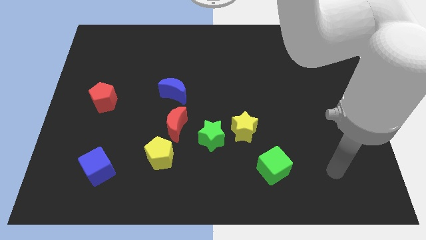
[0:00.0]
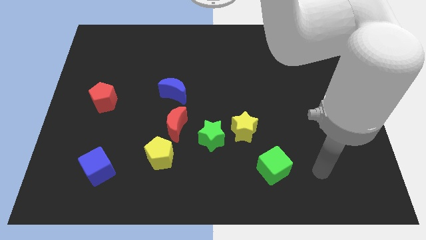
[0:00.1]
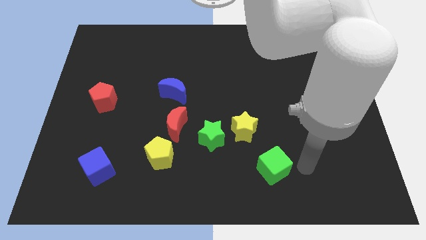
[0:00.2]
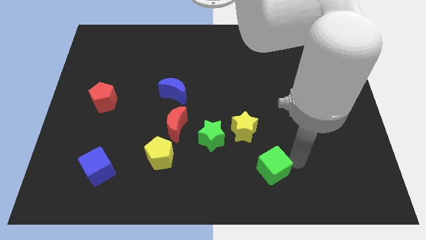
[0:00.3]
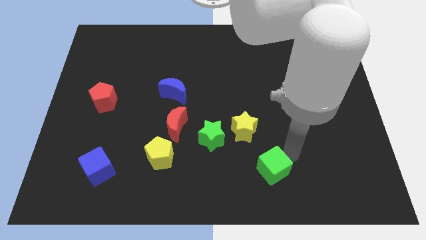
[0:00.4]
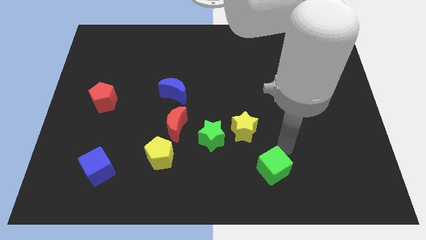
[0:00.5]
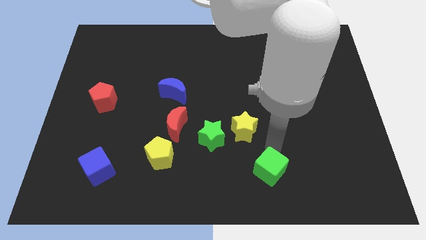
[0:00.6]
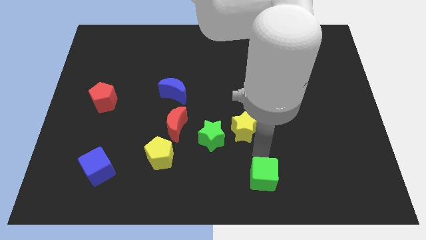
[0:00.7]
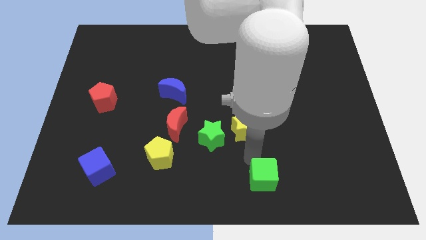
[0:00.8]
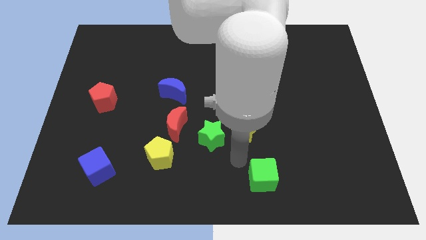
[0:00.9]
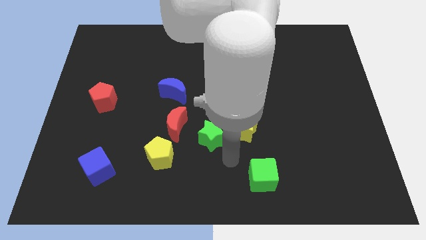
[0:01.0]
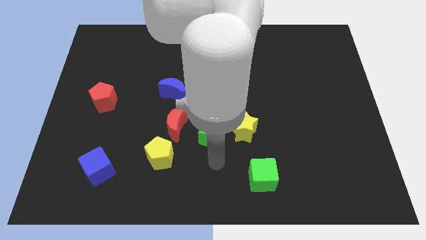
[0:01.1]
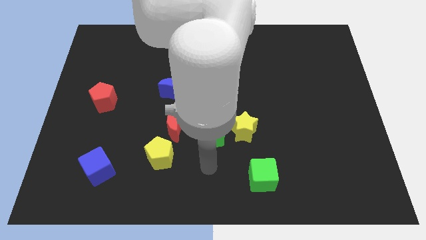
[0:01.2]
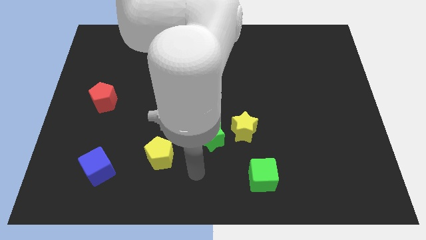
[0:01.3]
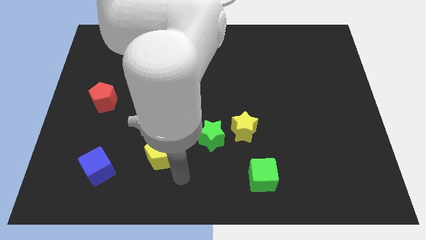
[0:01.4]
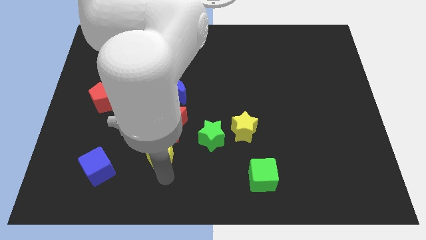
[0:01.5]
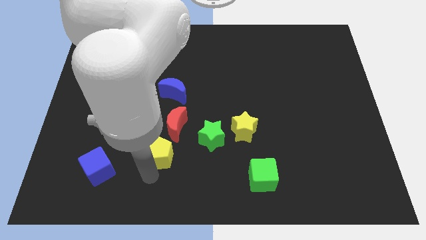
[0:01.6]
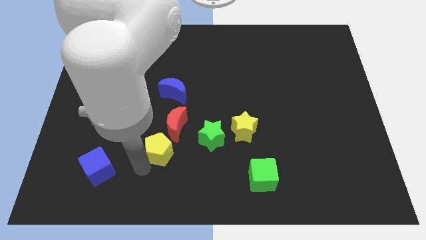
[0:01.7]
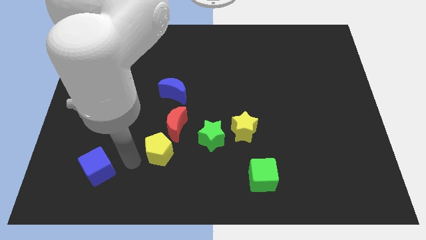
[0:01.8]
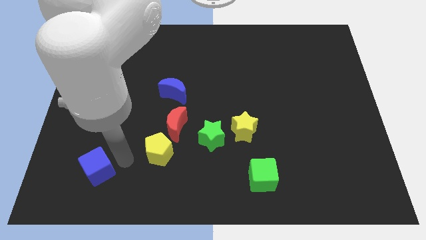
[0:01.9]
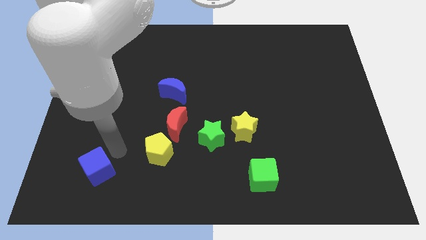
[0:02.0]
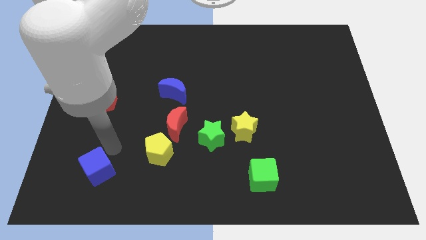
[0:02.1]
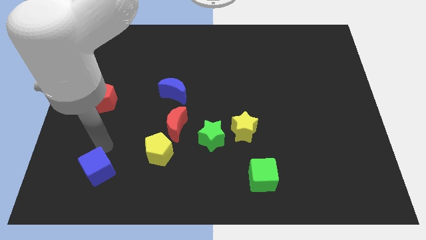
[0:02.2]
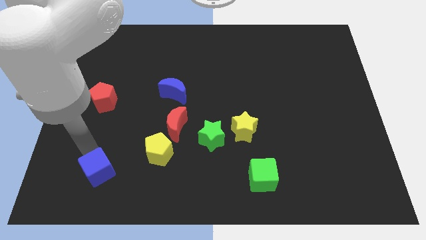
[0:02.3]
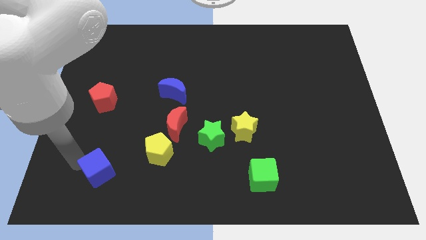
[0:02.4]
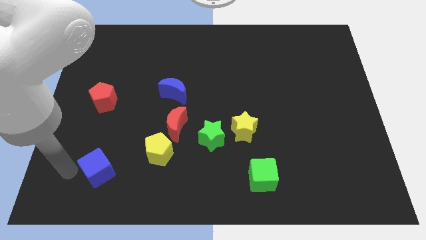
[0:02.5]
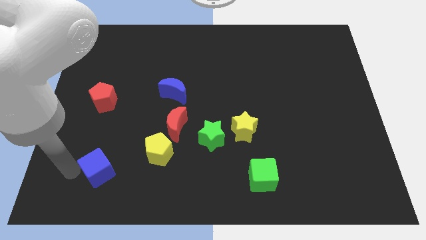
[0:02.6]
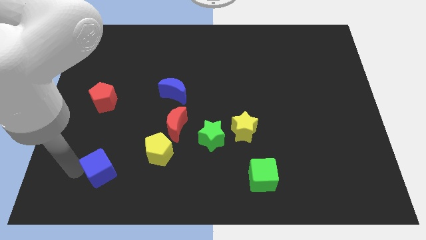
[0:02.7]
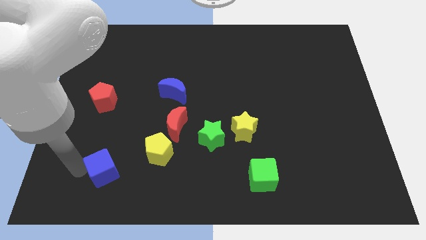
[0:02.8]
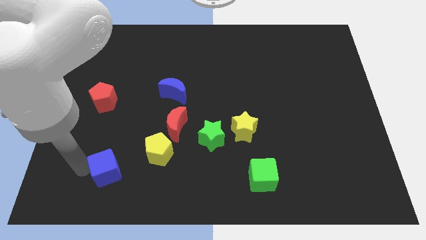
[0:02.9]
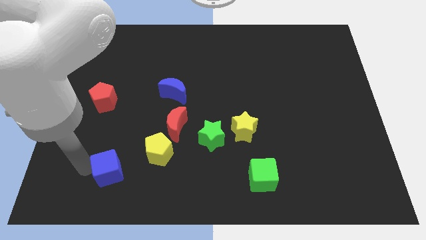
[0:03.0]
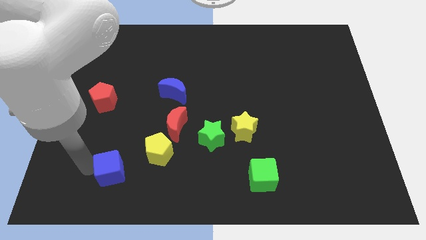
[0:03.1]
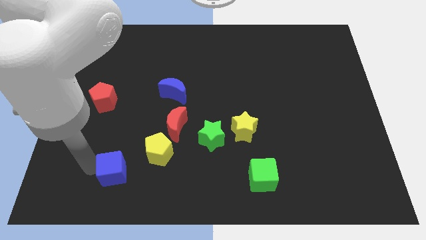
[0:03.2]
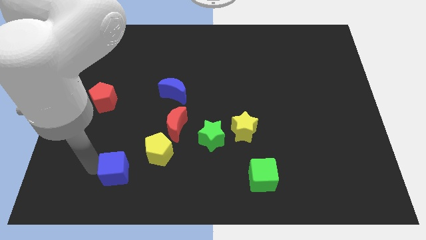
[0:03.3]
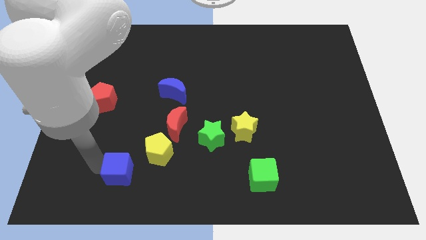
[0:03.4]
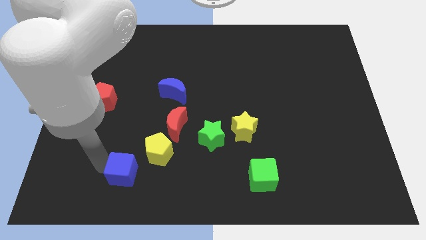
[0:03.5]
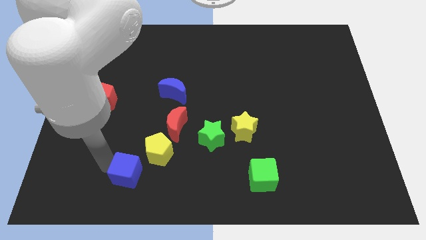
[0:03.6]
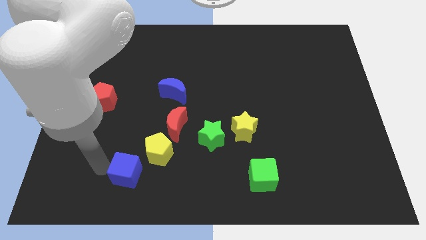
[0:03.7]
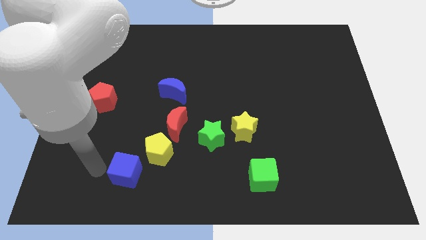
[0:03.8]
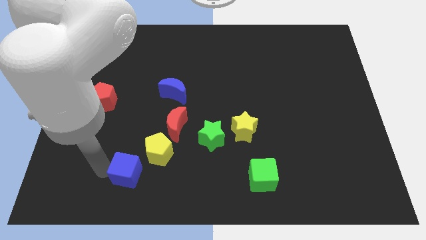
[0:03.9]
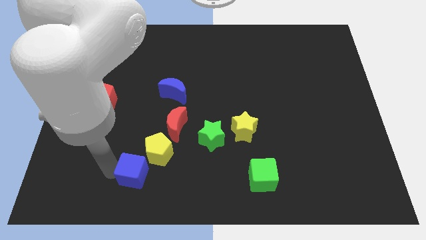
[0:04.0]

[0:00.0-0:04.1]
move the blue cube somewhat right

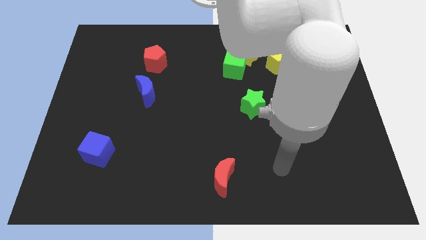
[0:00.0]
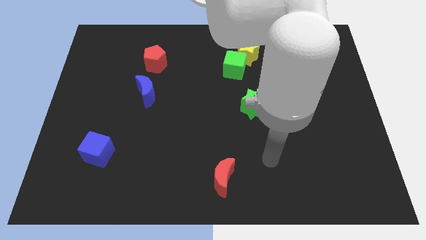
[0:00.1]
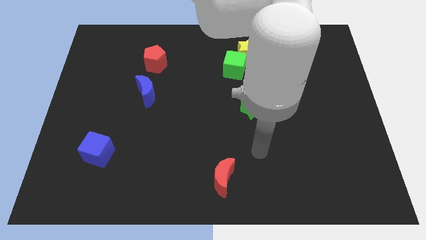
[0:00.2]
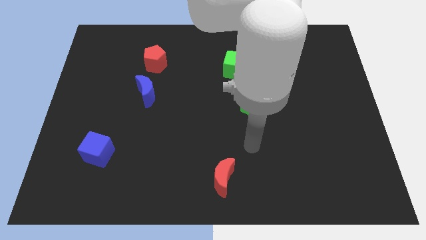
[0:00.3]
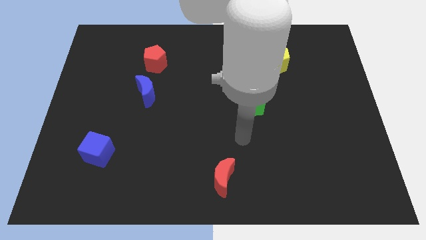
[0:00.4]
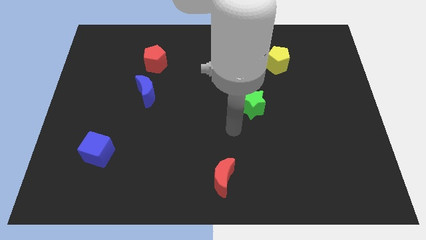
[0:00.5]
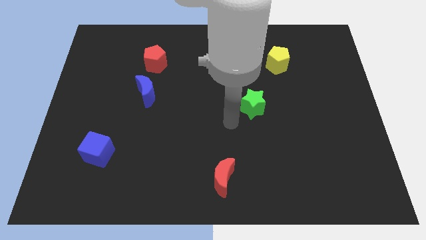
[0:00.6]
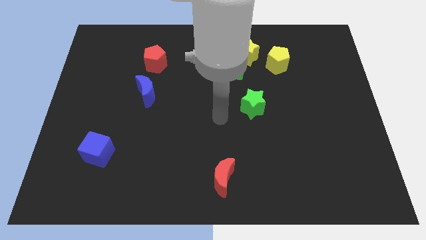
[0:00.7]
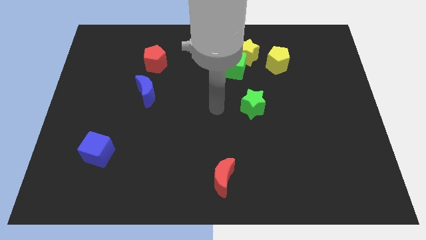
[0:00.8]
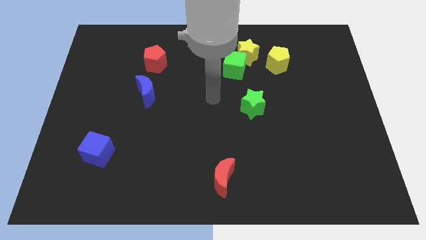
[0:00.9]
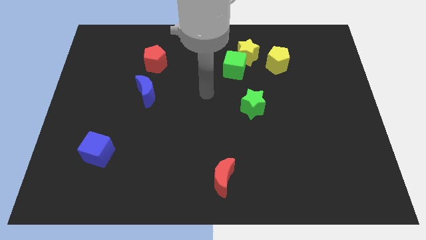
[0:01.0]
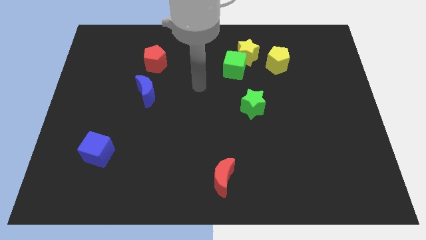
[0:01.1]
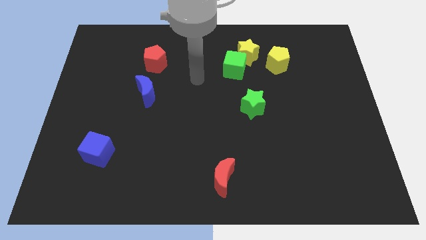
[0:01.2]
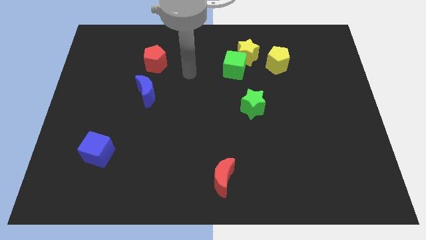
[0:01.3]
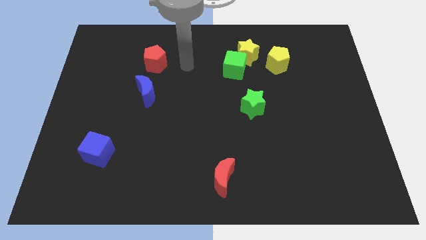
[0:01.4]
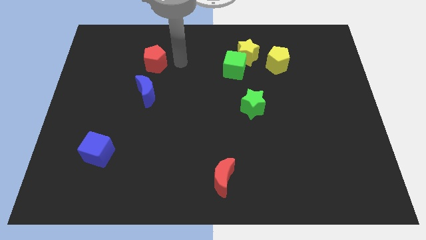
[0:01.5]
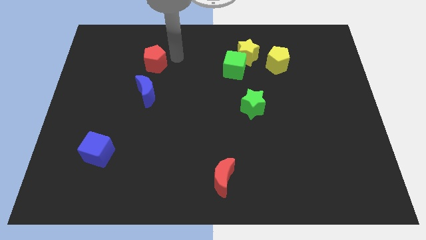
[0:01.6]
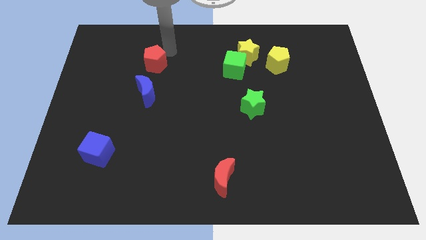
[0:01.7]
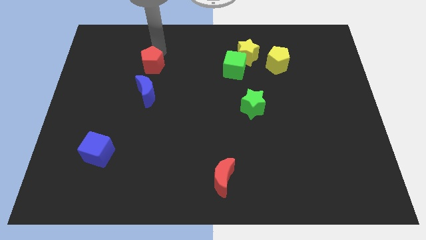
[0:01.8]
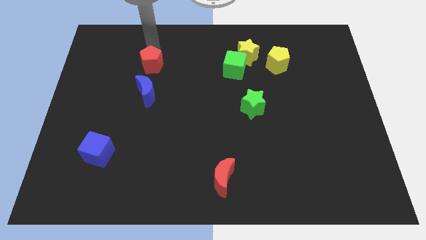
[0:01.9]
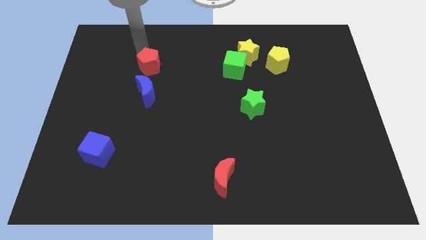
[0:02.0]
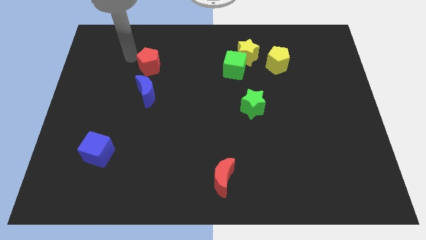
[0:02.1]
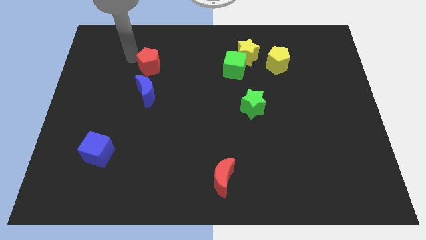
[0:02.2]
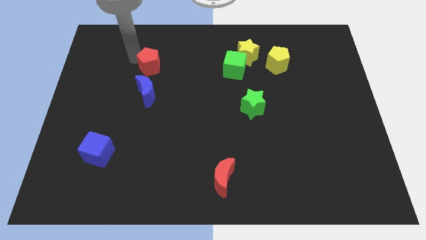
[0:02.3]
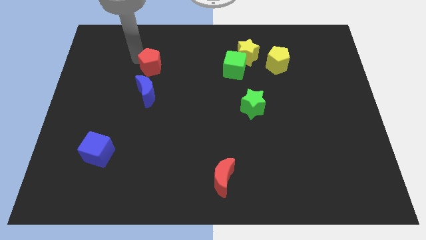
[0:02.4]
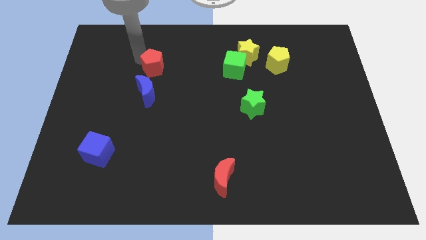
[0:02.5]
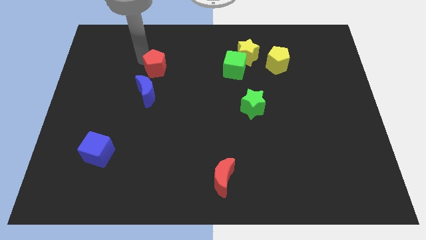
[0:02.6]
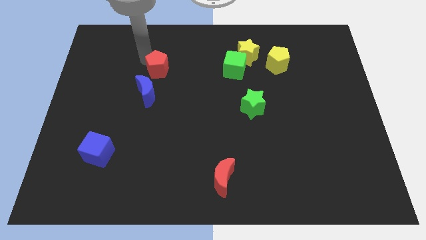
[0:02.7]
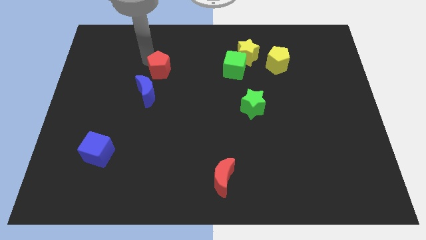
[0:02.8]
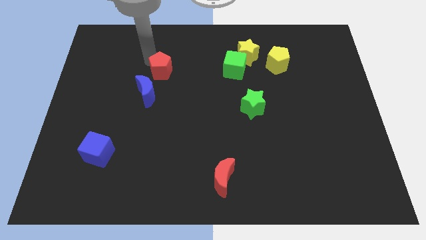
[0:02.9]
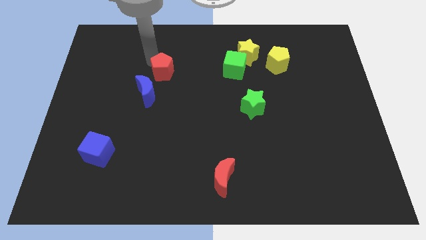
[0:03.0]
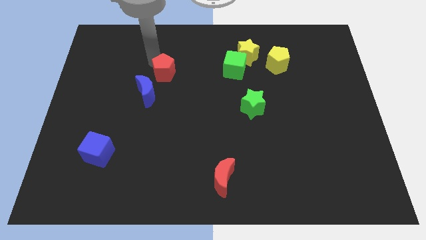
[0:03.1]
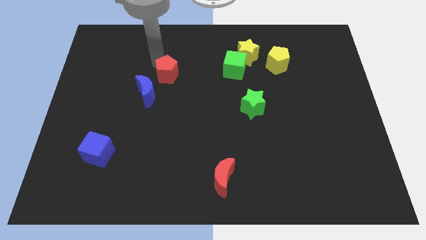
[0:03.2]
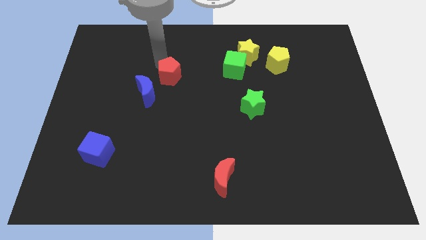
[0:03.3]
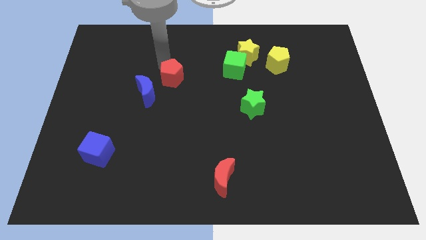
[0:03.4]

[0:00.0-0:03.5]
push the red pentagon somewhat diagonally downwards and to the right

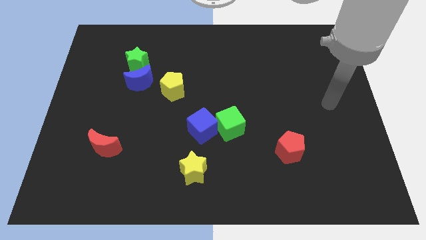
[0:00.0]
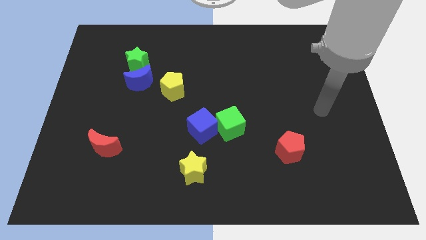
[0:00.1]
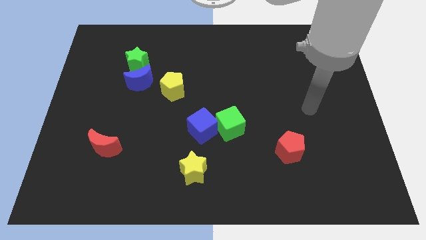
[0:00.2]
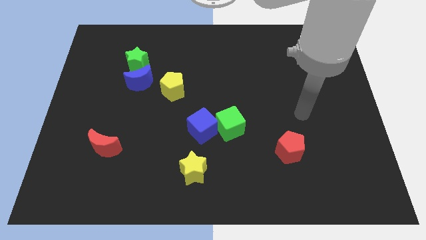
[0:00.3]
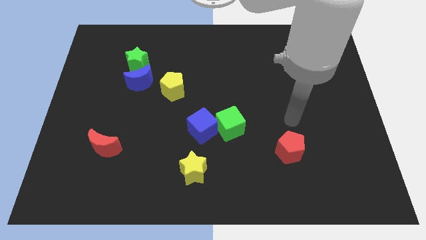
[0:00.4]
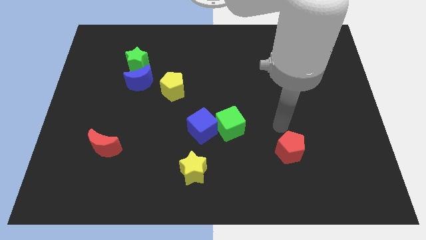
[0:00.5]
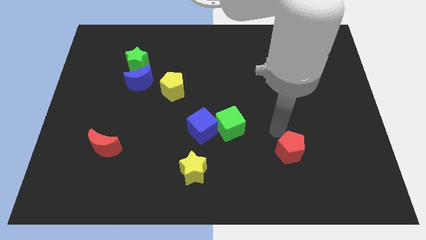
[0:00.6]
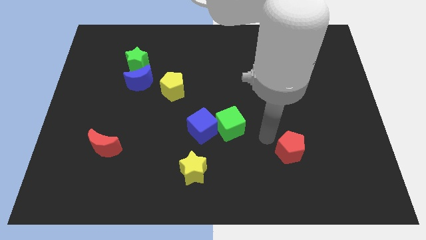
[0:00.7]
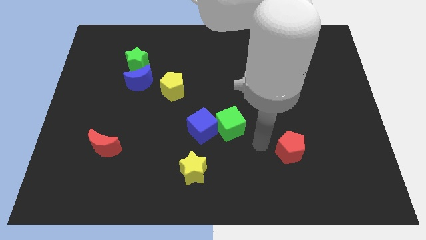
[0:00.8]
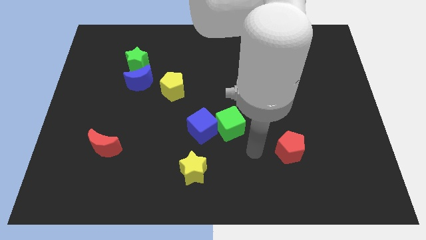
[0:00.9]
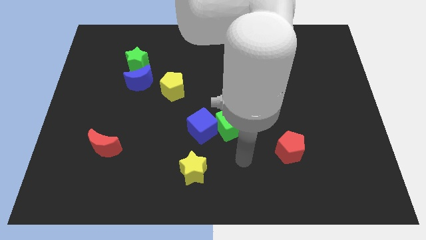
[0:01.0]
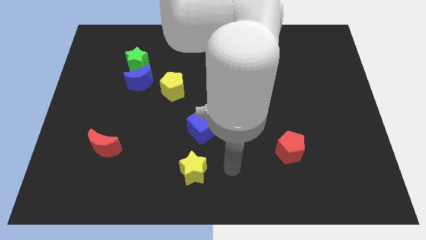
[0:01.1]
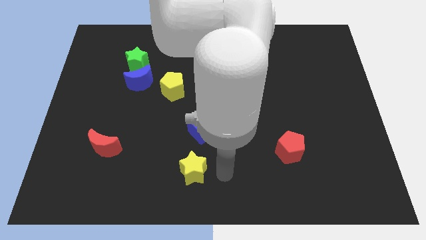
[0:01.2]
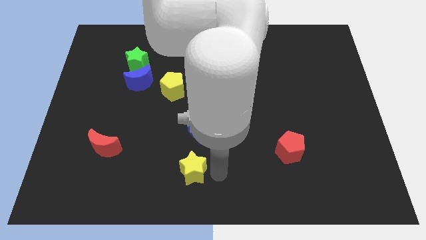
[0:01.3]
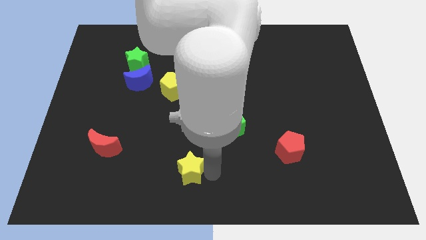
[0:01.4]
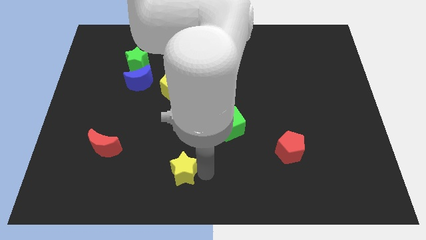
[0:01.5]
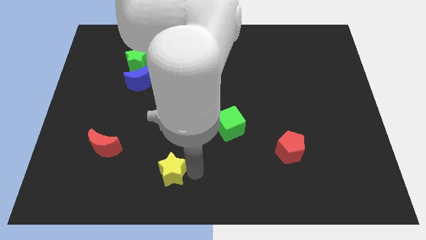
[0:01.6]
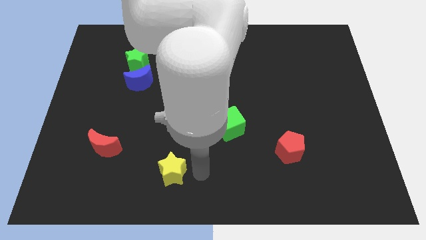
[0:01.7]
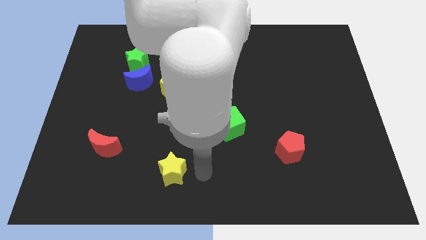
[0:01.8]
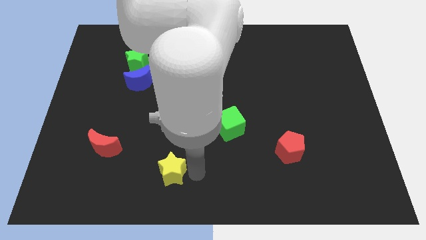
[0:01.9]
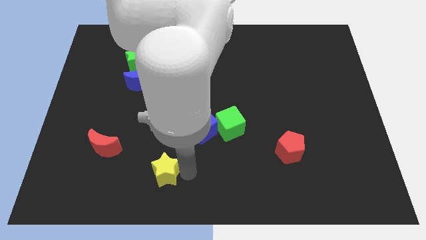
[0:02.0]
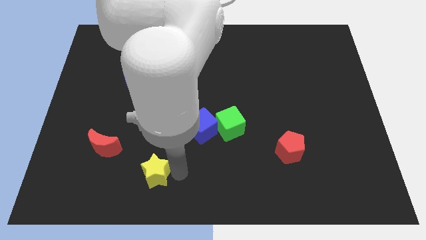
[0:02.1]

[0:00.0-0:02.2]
slide the yellow star somewhat to the left
